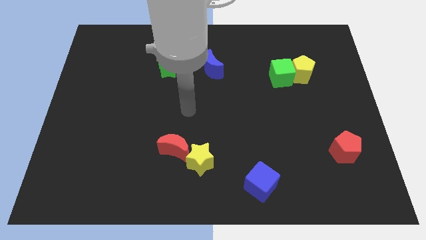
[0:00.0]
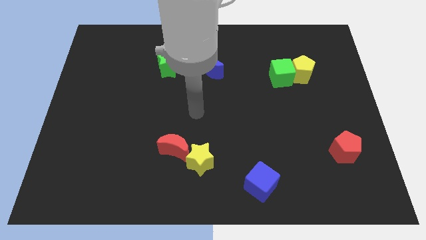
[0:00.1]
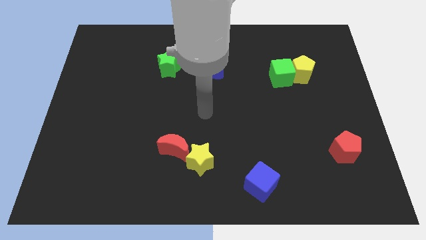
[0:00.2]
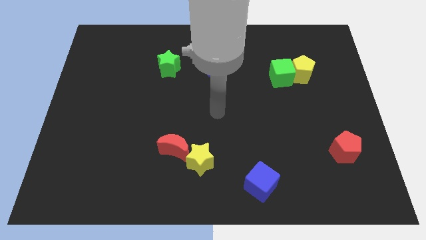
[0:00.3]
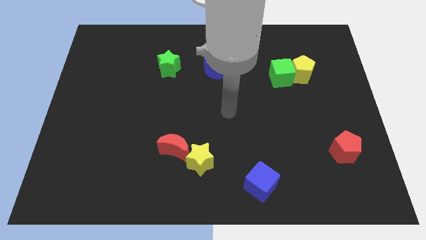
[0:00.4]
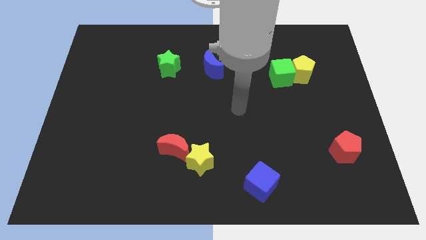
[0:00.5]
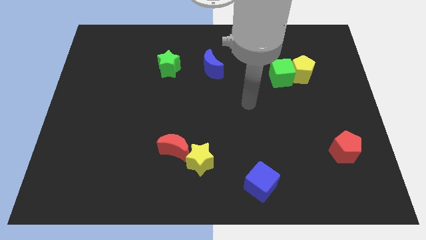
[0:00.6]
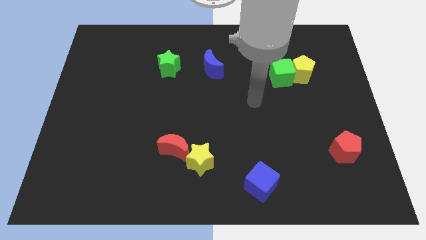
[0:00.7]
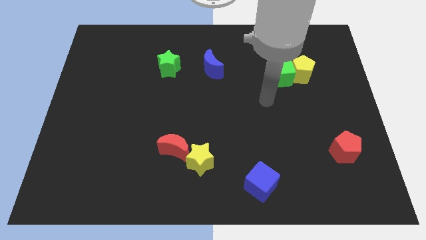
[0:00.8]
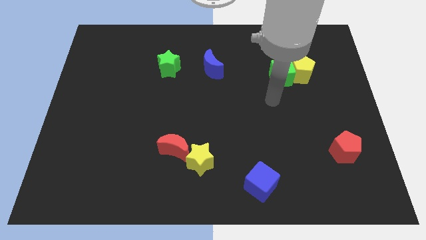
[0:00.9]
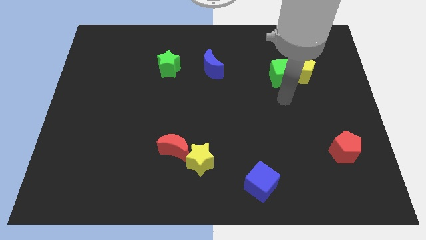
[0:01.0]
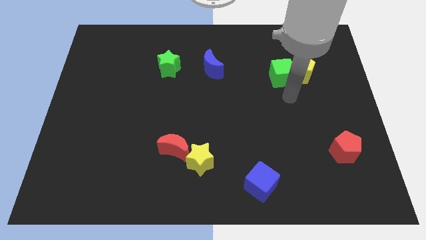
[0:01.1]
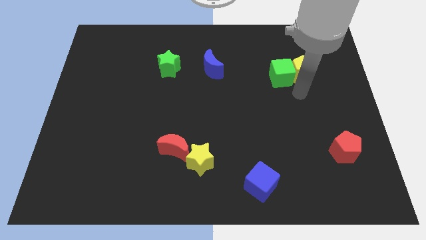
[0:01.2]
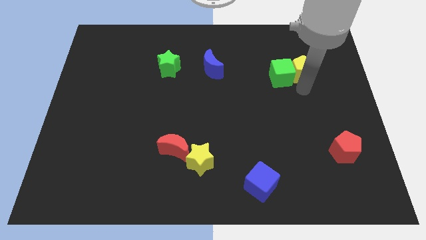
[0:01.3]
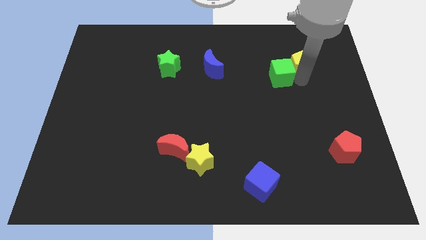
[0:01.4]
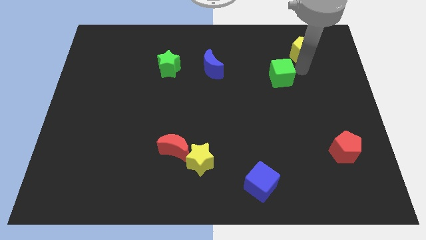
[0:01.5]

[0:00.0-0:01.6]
pull the green cube apart from the yellow pentagon

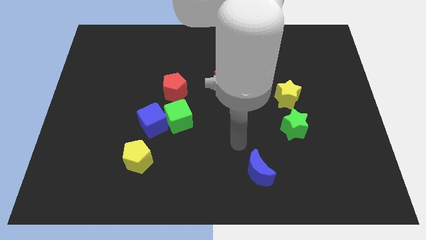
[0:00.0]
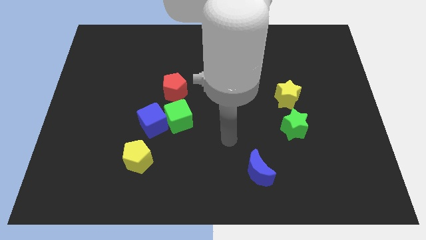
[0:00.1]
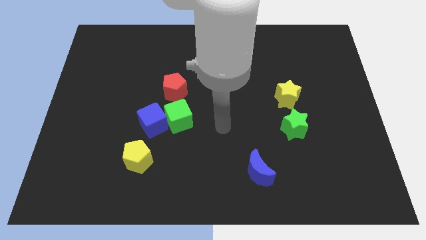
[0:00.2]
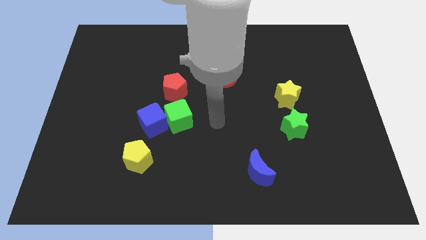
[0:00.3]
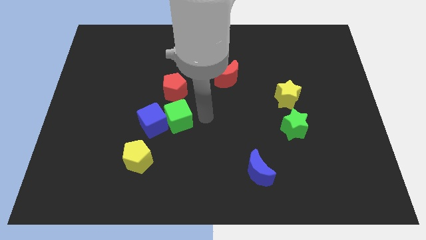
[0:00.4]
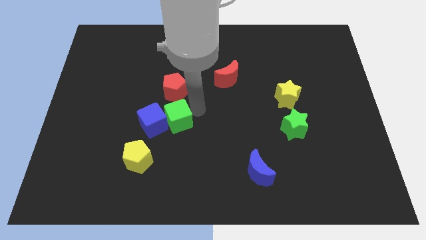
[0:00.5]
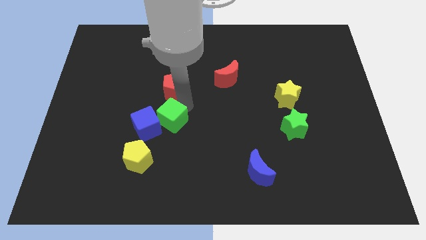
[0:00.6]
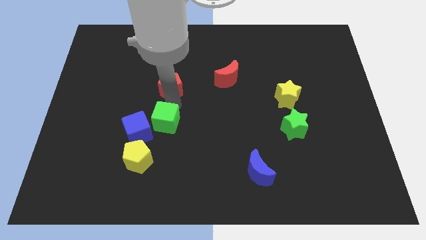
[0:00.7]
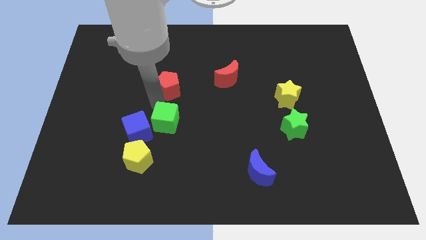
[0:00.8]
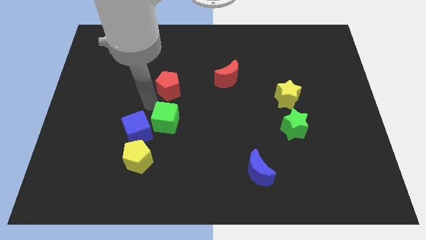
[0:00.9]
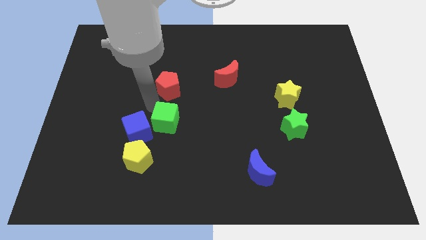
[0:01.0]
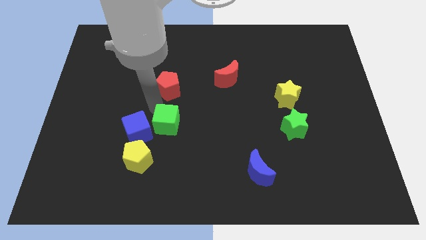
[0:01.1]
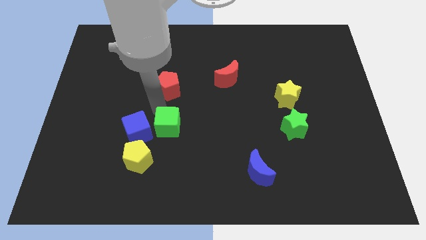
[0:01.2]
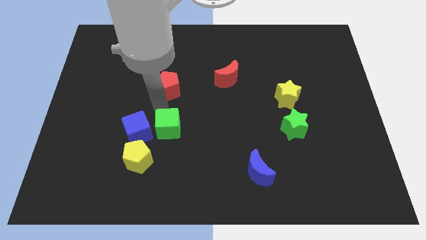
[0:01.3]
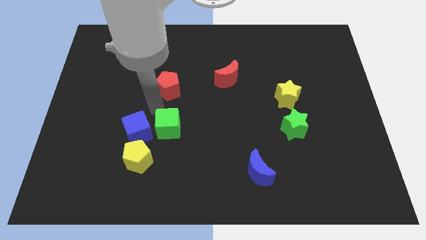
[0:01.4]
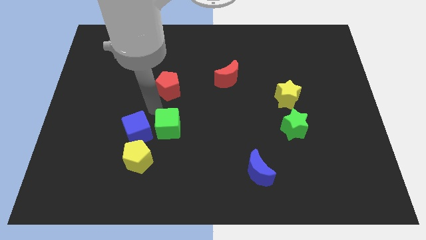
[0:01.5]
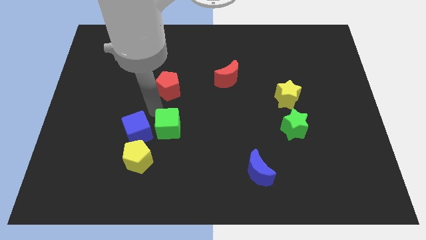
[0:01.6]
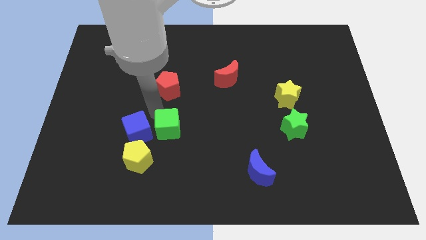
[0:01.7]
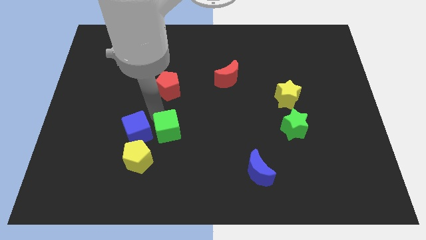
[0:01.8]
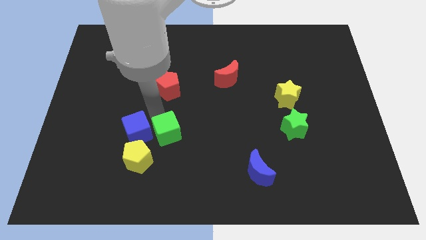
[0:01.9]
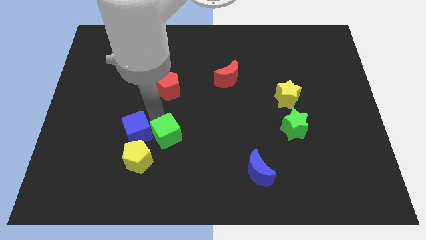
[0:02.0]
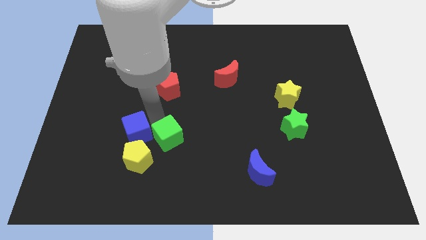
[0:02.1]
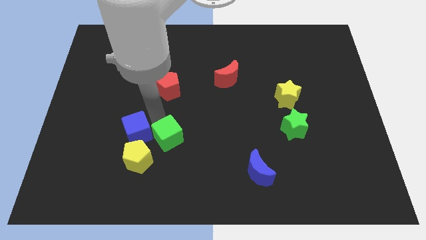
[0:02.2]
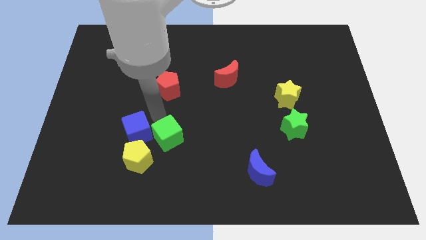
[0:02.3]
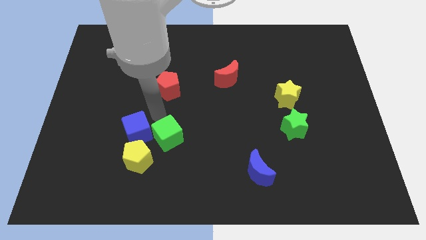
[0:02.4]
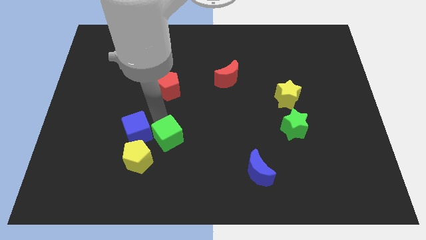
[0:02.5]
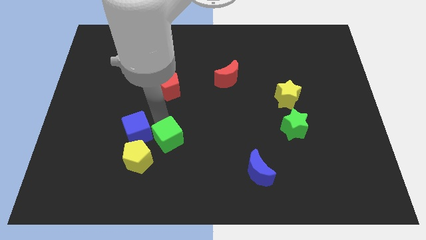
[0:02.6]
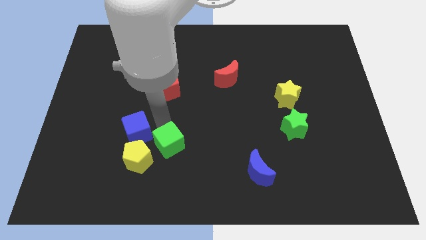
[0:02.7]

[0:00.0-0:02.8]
pull the green cube apart from the blue cube and red pentagon

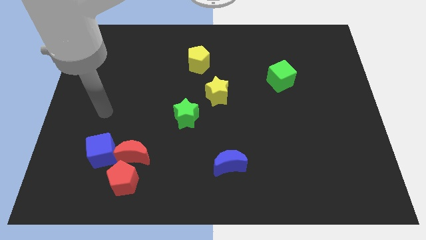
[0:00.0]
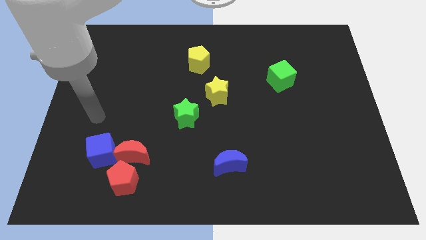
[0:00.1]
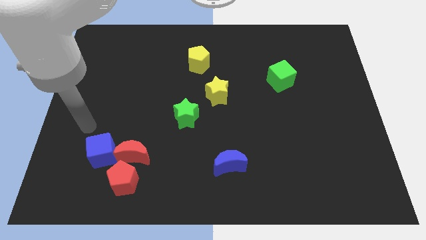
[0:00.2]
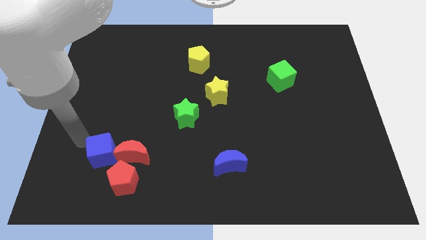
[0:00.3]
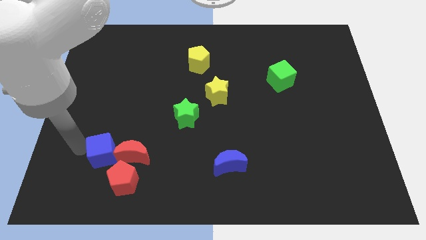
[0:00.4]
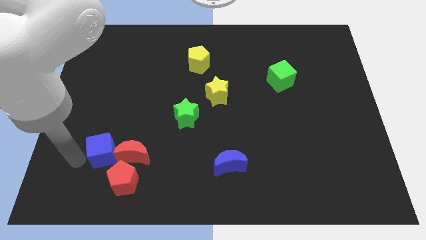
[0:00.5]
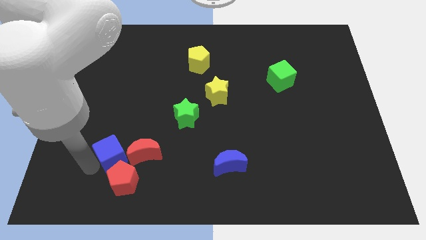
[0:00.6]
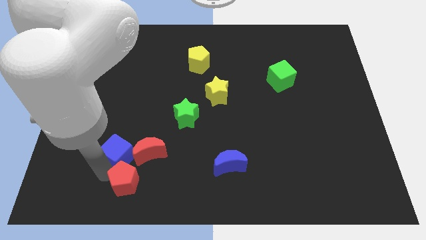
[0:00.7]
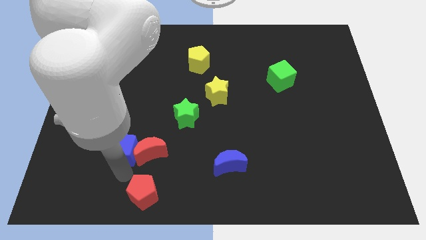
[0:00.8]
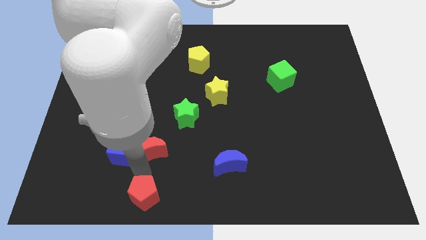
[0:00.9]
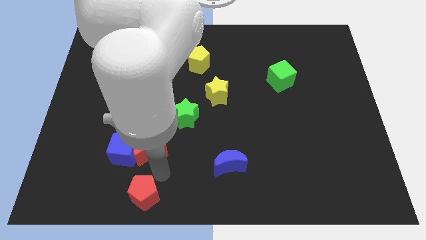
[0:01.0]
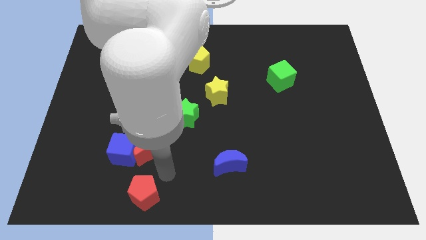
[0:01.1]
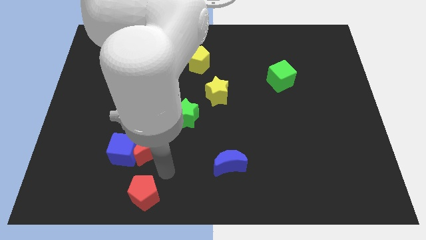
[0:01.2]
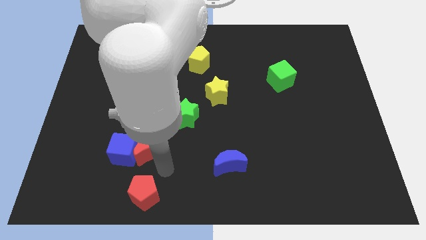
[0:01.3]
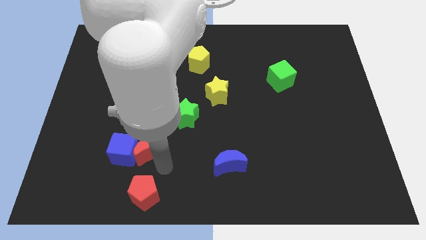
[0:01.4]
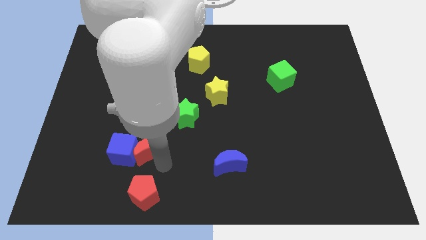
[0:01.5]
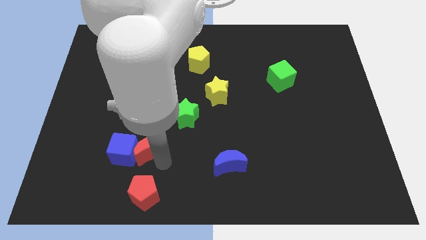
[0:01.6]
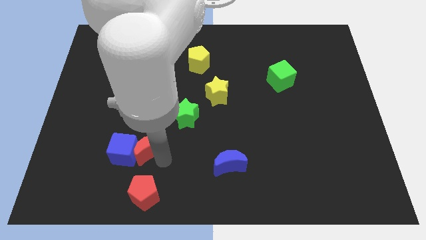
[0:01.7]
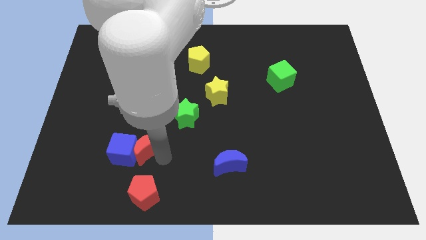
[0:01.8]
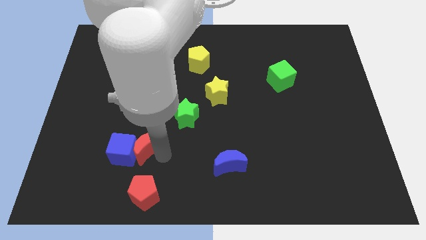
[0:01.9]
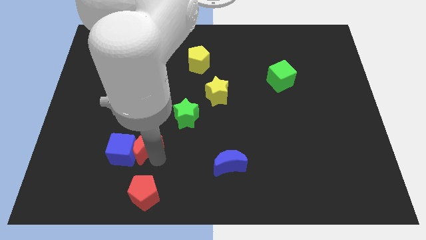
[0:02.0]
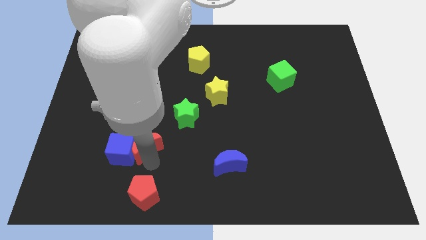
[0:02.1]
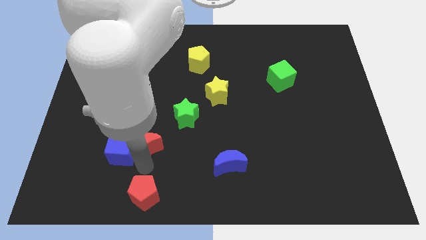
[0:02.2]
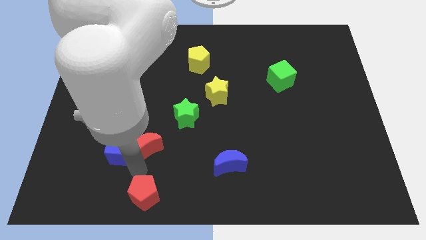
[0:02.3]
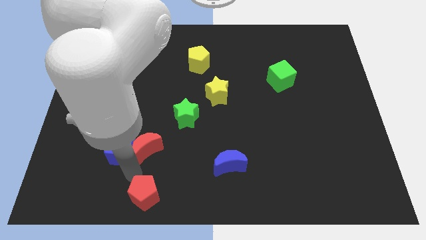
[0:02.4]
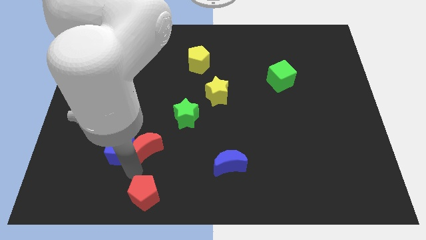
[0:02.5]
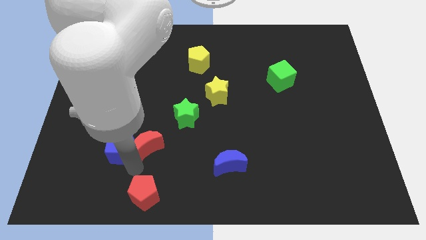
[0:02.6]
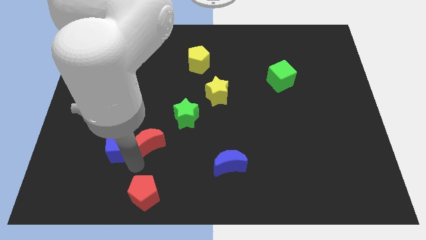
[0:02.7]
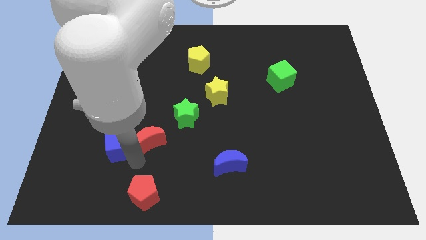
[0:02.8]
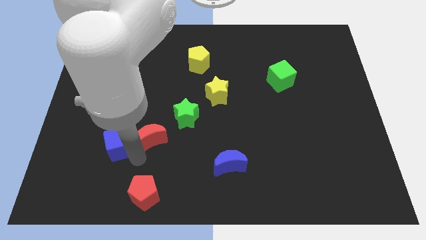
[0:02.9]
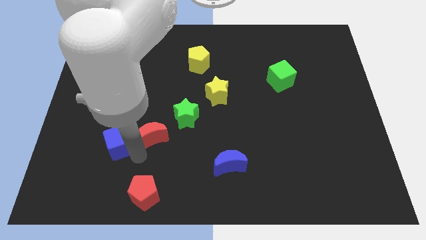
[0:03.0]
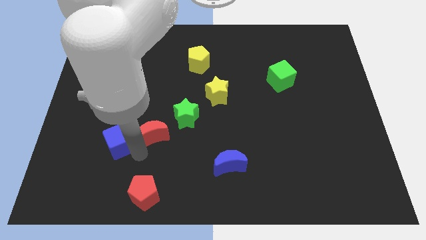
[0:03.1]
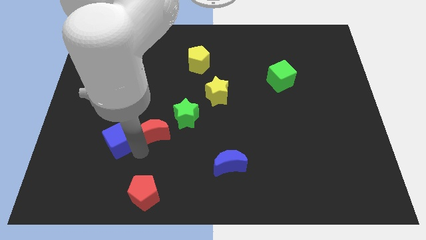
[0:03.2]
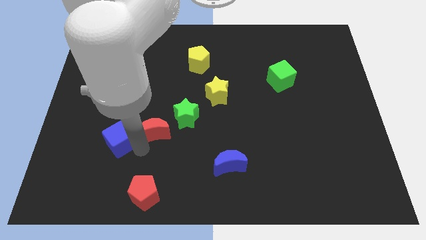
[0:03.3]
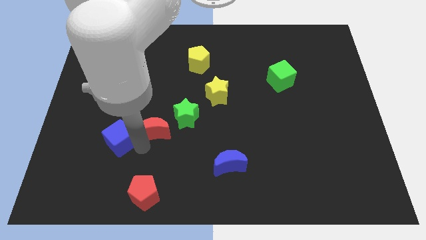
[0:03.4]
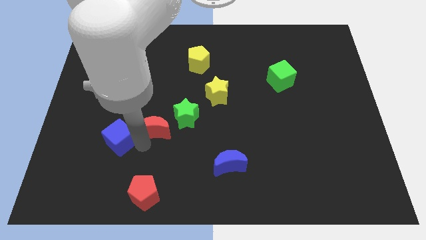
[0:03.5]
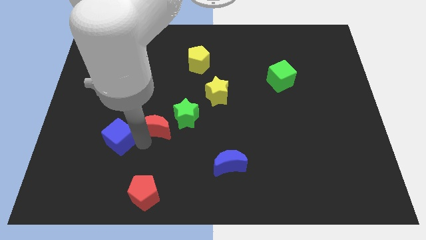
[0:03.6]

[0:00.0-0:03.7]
separate the red moon from the red pentagon and blue cube

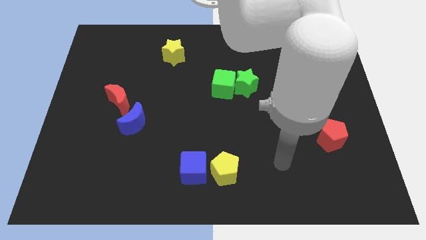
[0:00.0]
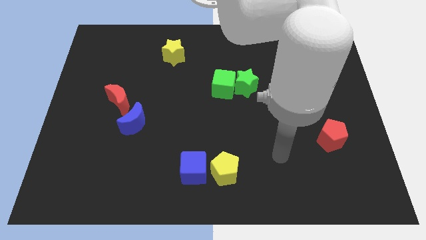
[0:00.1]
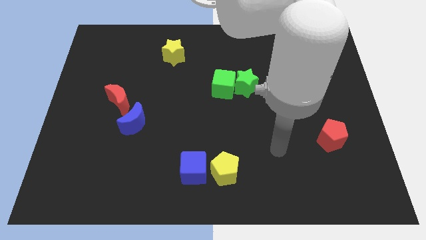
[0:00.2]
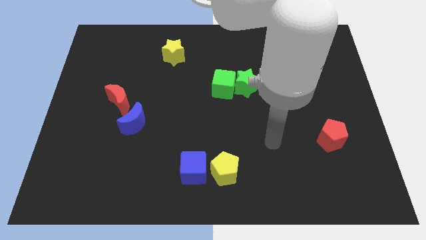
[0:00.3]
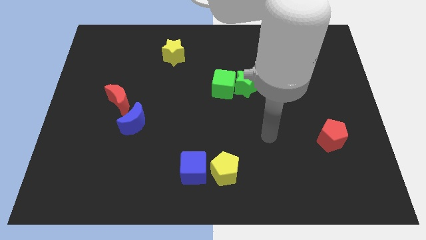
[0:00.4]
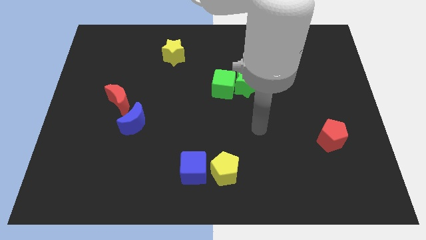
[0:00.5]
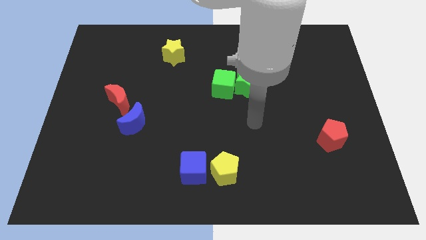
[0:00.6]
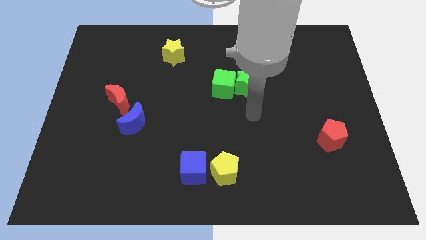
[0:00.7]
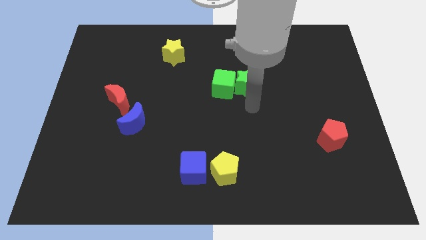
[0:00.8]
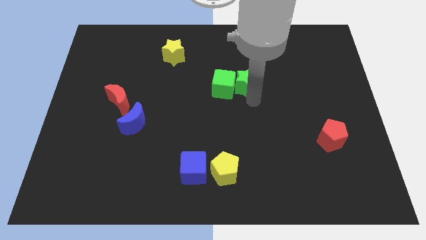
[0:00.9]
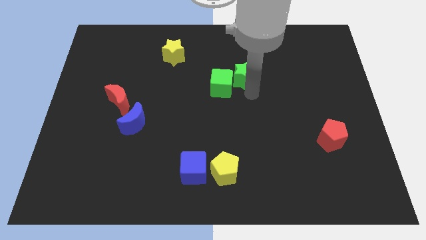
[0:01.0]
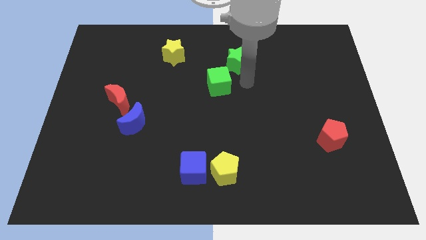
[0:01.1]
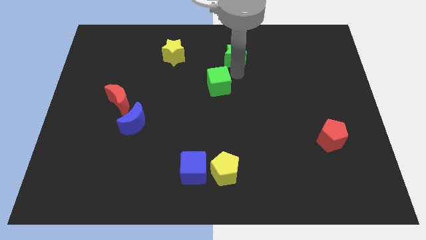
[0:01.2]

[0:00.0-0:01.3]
separate the green cube from the green star
